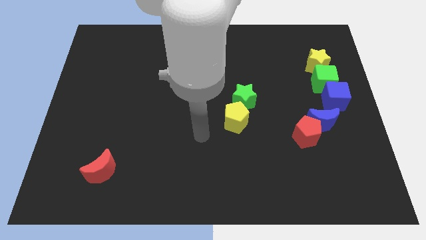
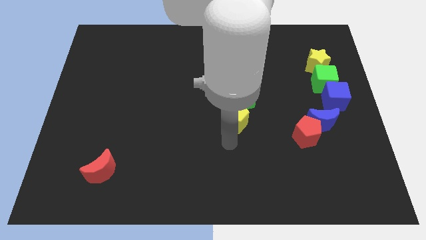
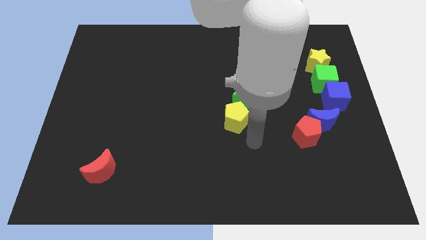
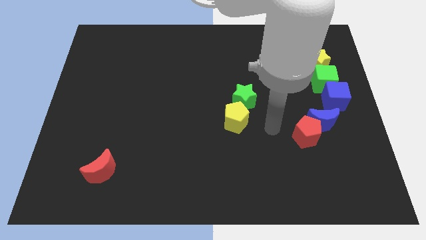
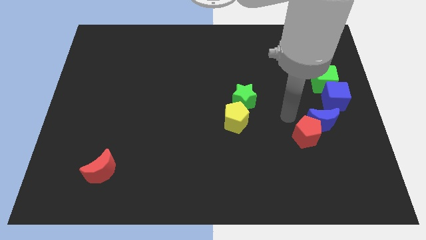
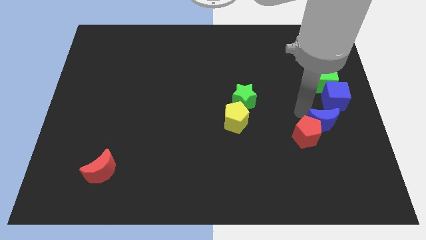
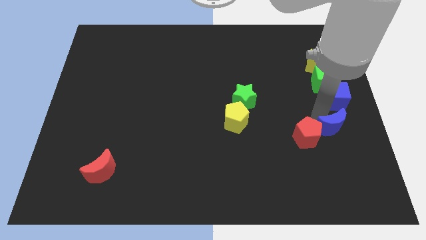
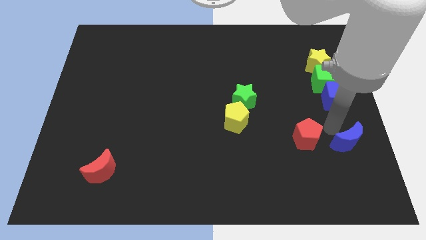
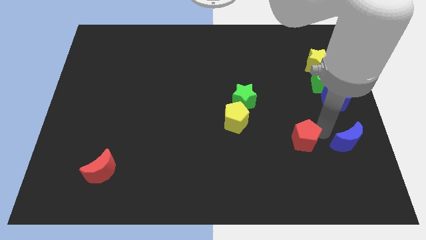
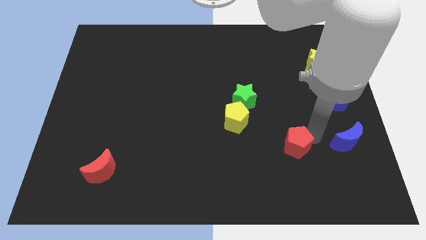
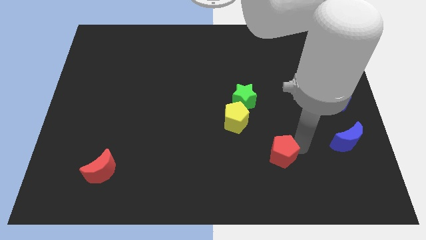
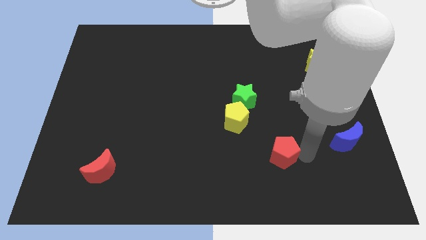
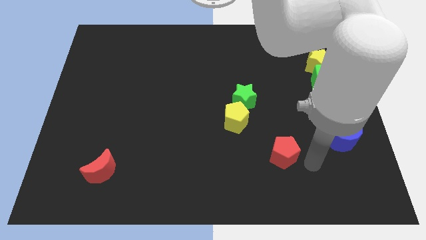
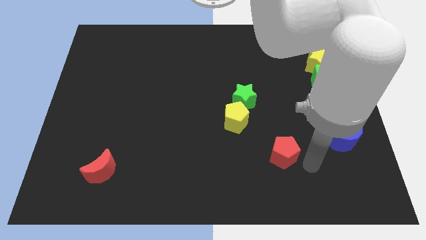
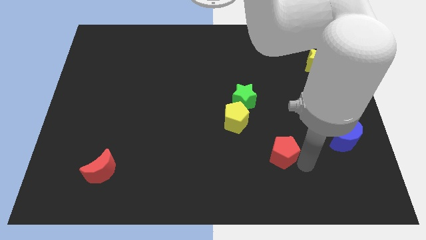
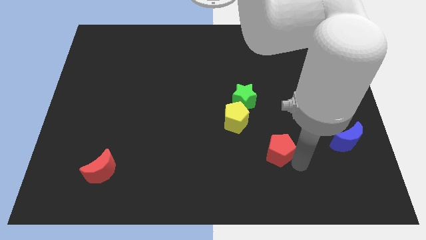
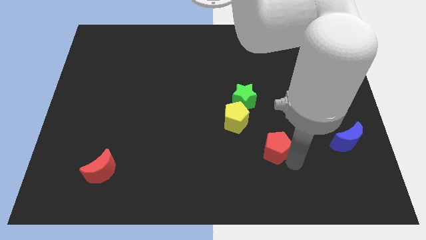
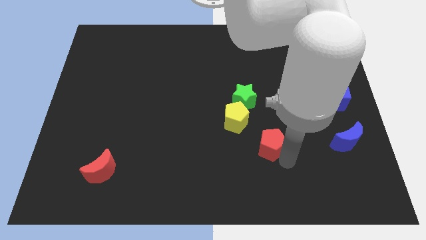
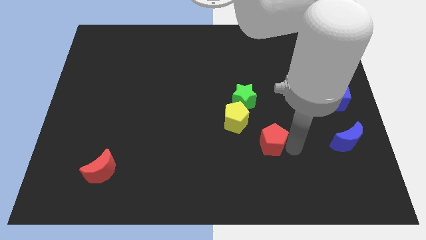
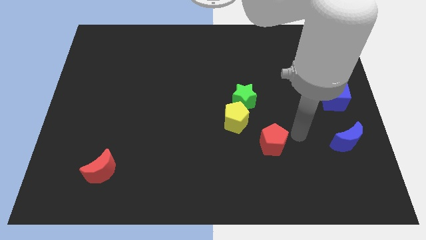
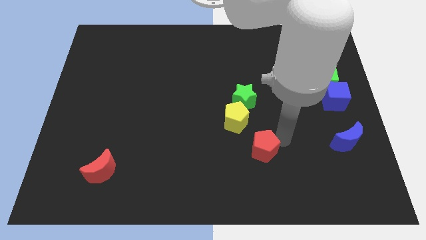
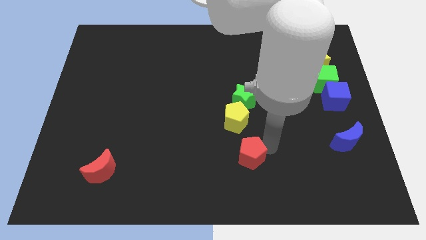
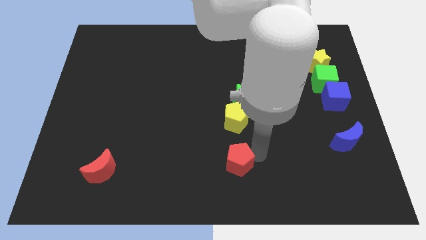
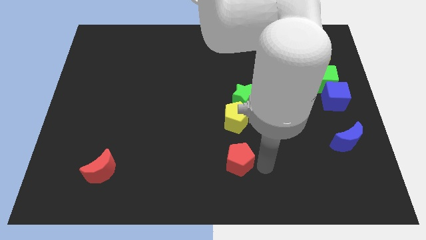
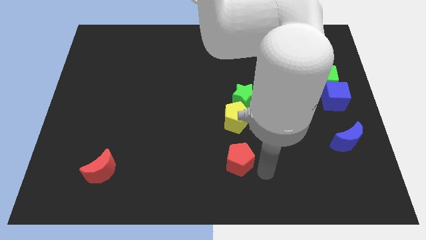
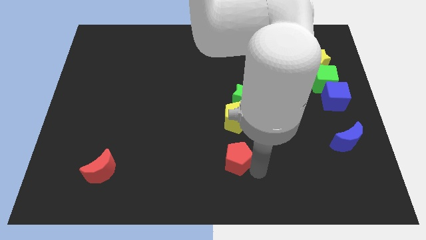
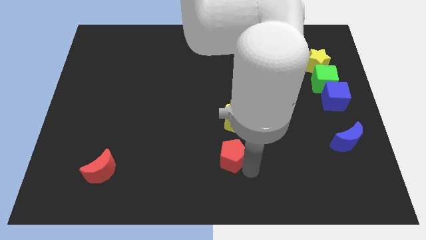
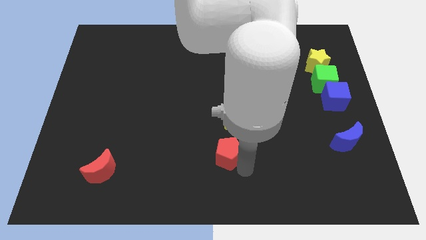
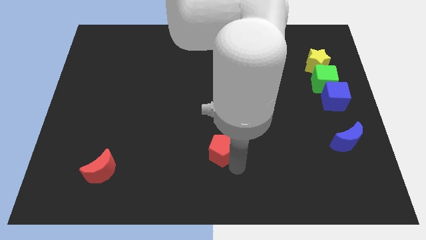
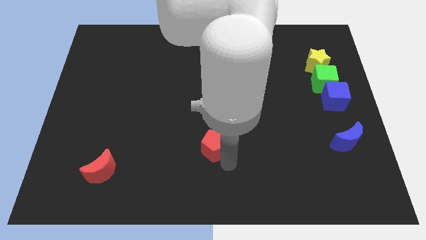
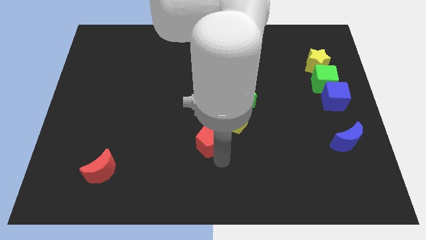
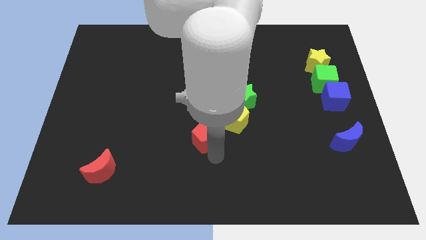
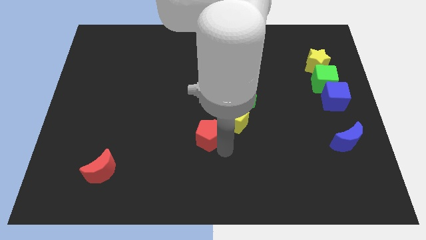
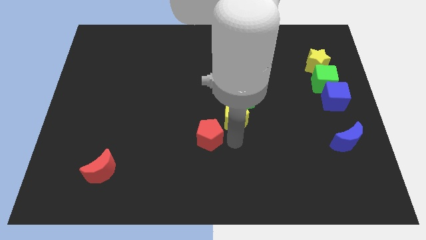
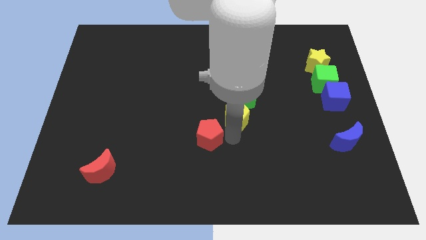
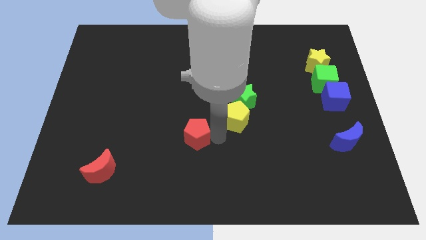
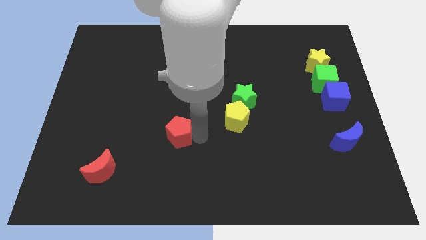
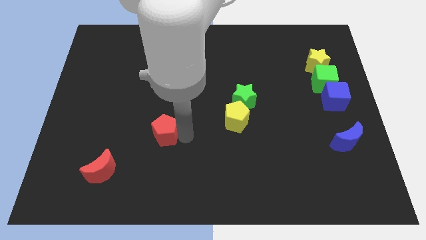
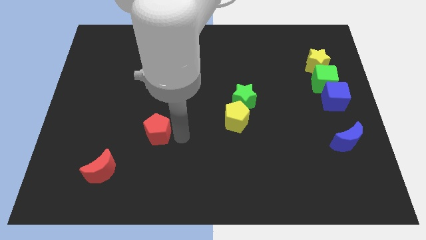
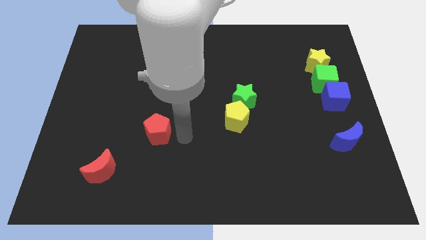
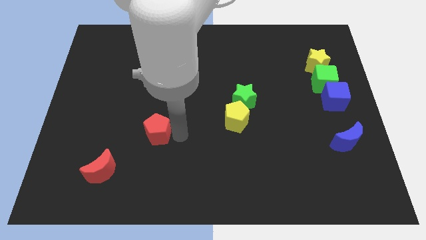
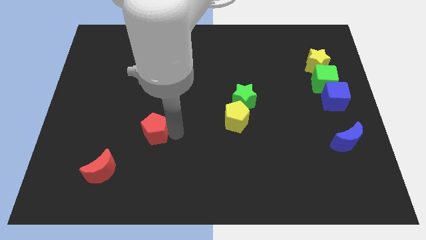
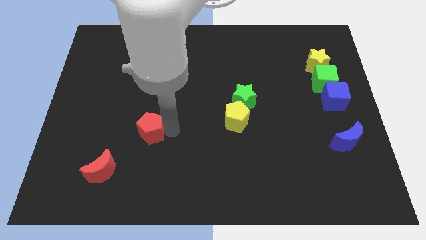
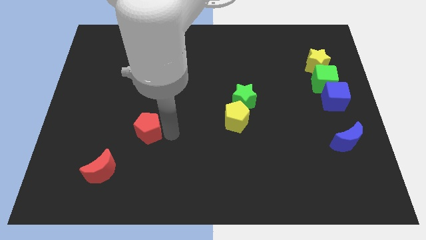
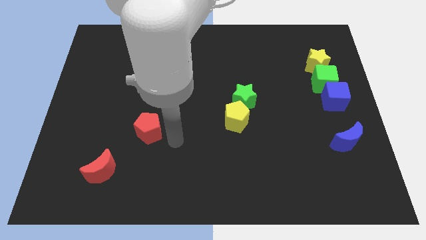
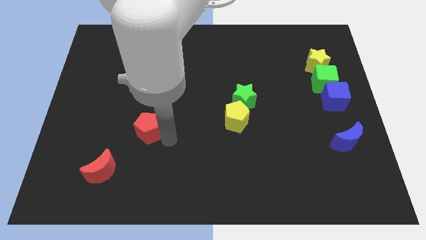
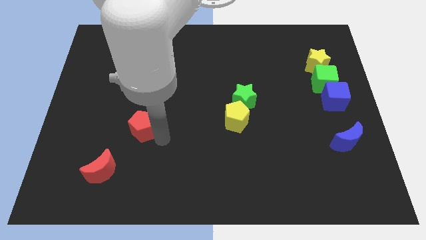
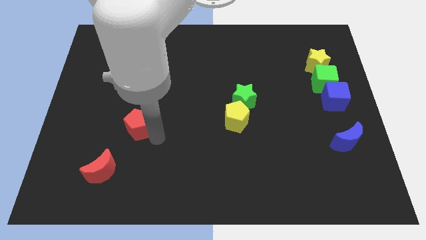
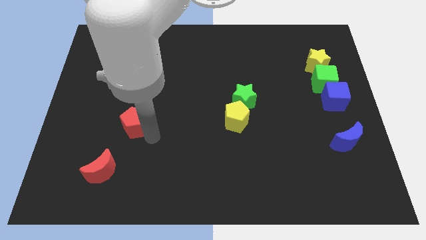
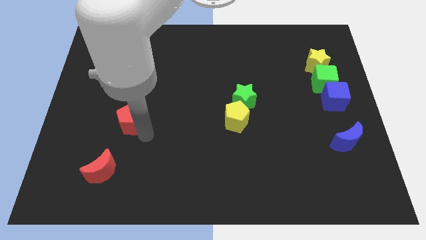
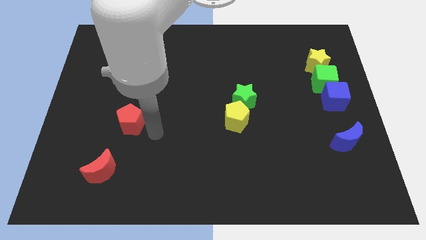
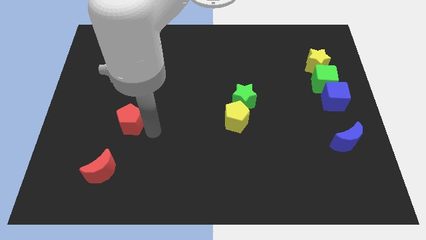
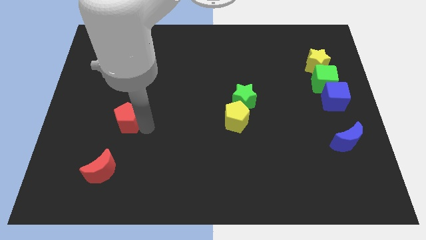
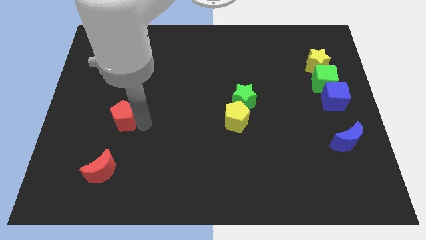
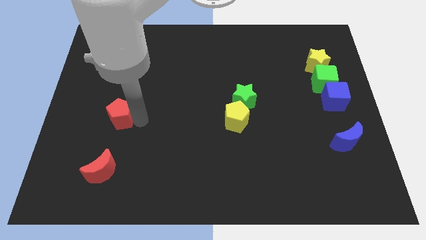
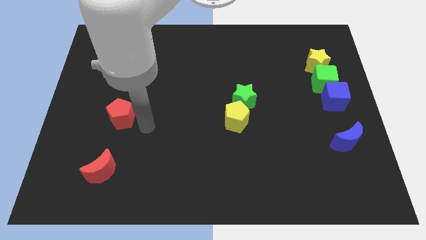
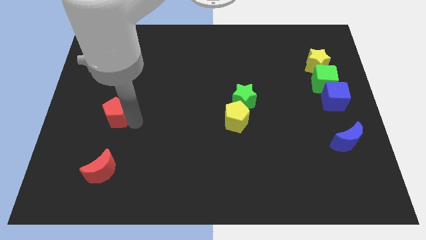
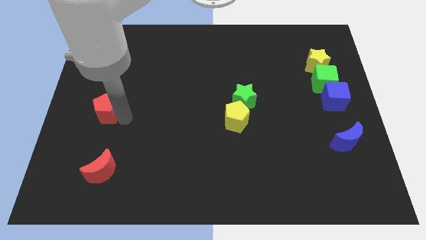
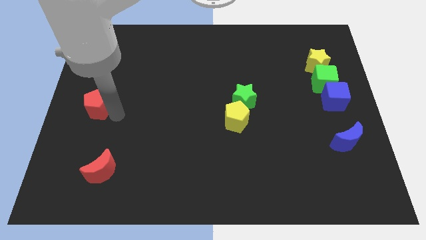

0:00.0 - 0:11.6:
push the red pentagon to the left side

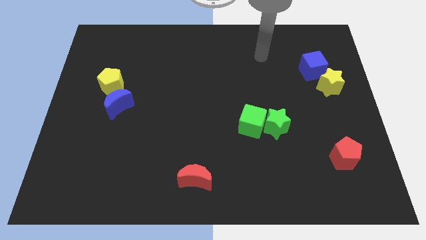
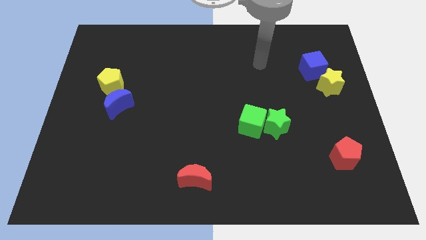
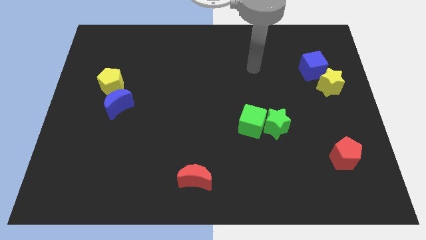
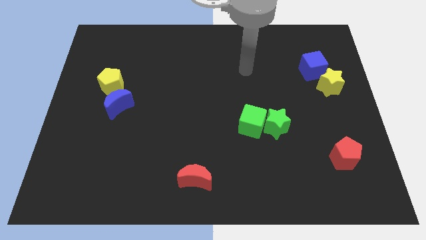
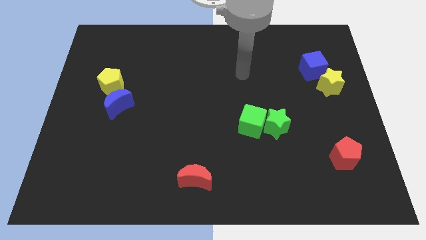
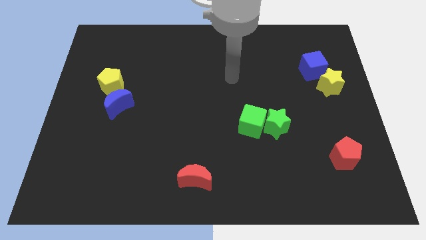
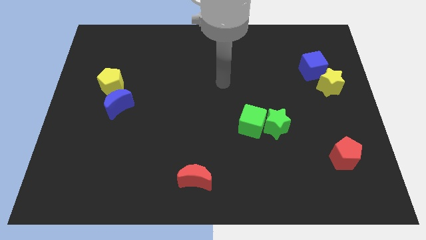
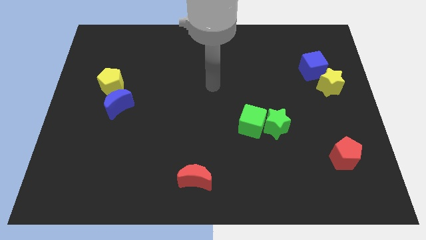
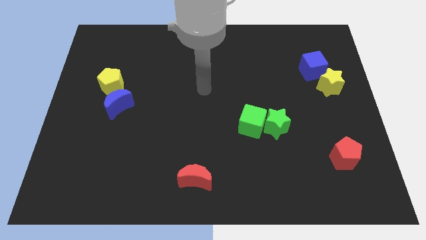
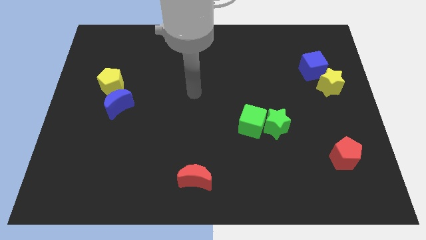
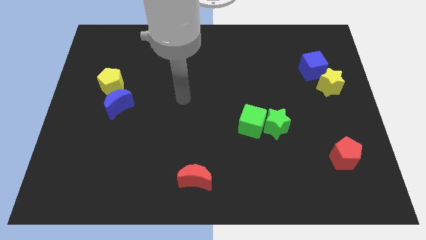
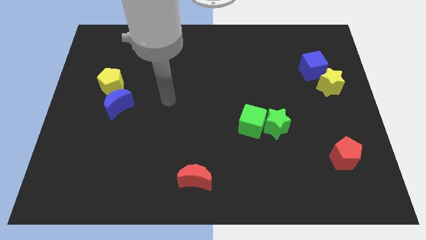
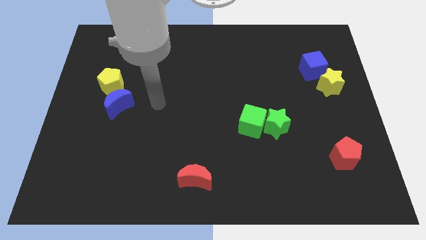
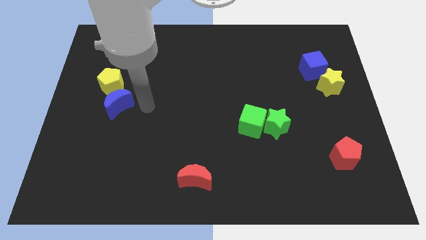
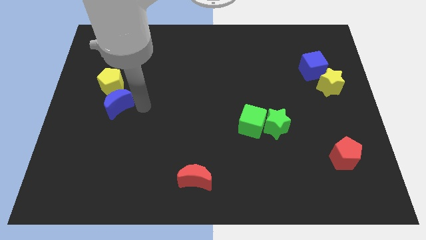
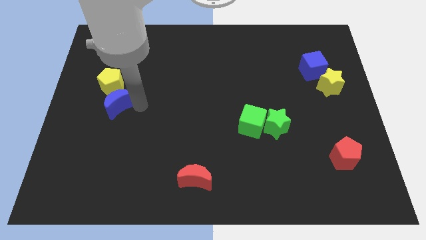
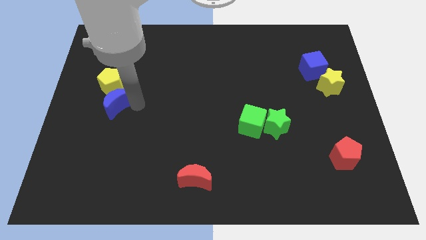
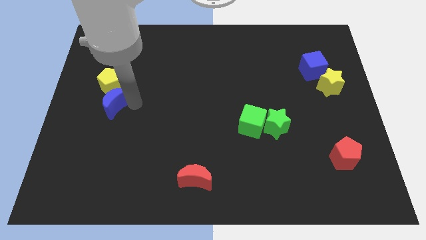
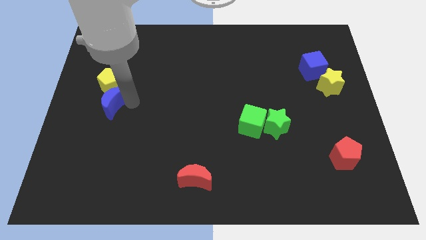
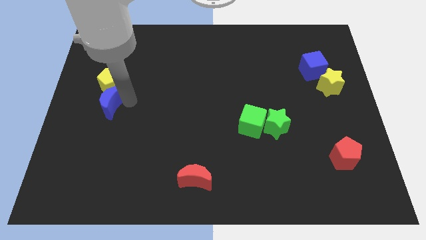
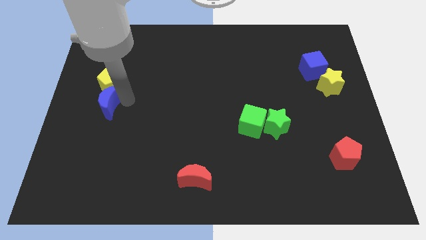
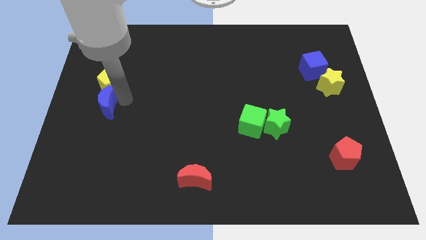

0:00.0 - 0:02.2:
move the blue moon to the center left
